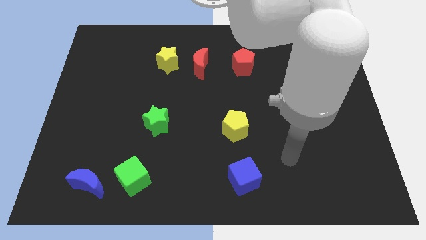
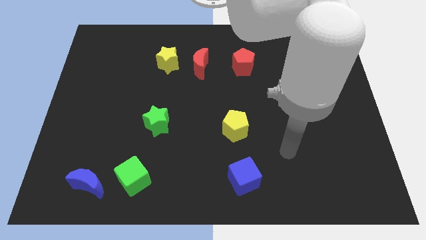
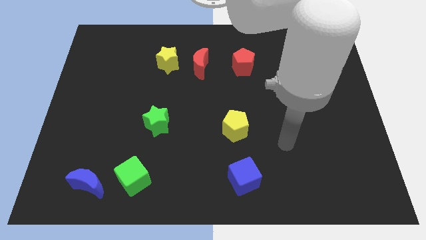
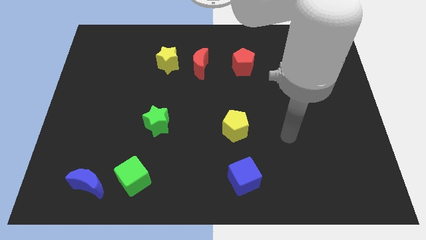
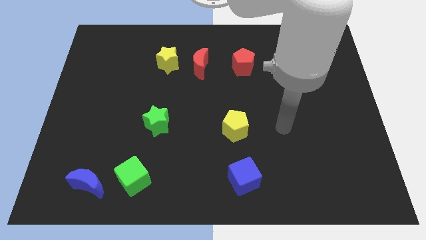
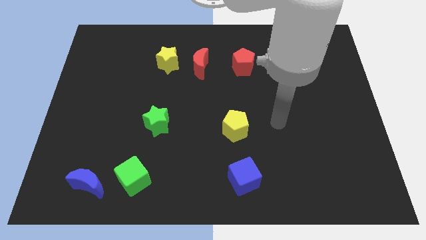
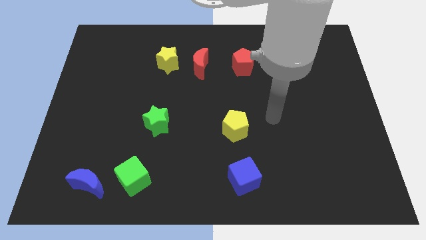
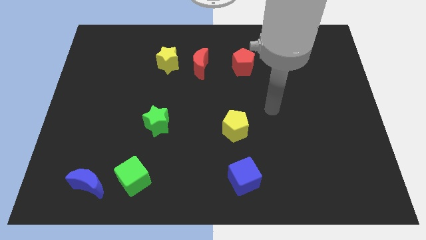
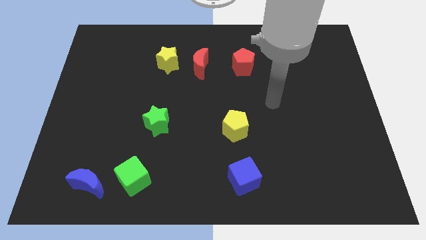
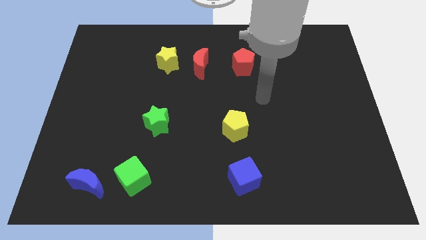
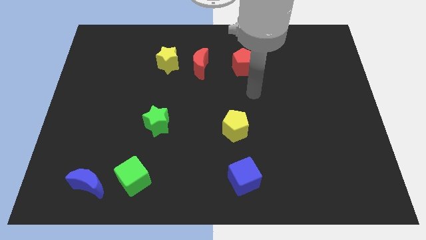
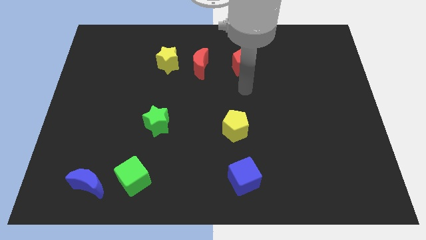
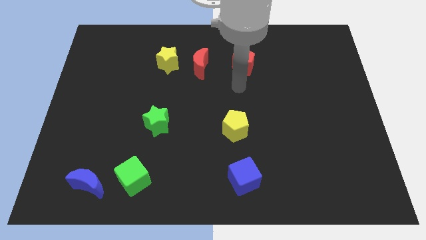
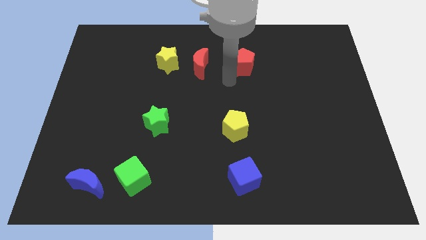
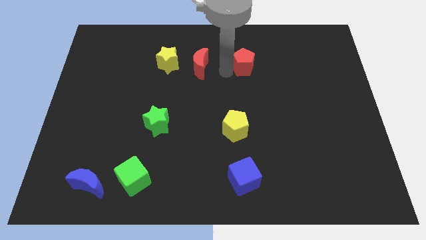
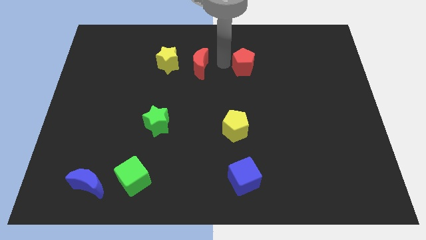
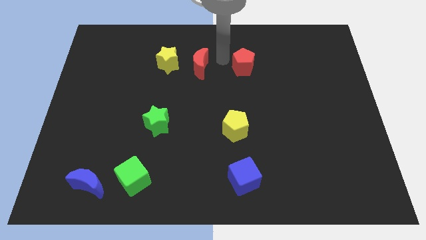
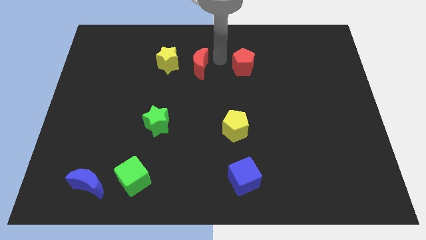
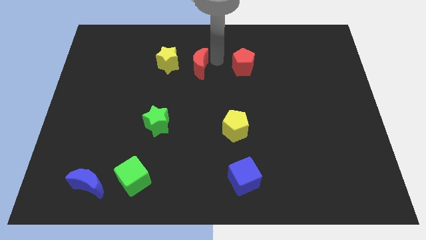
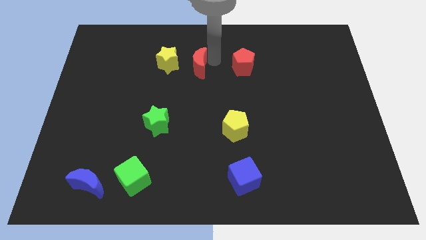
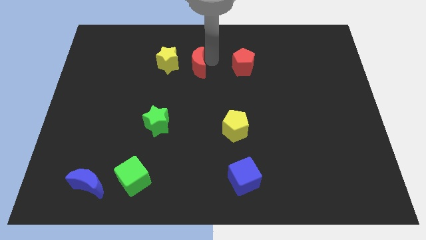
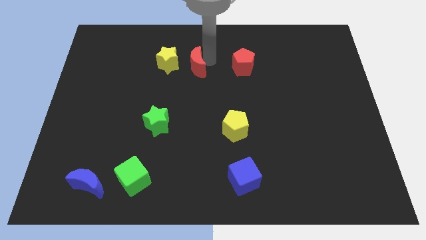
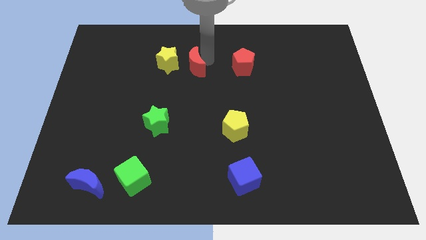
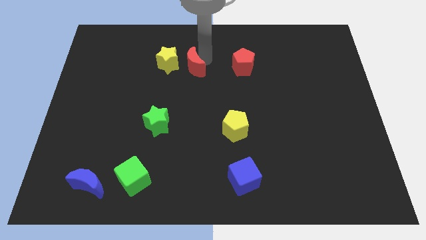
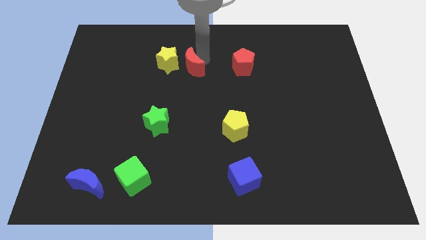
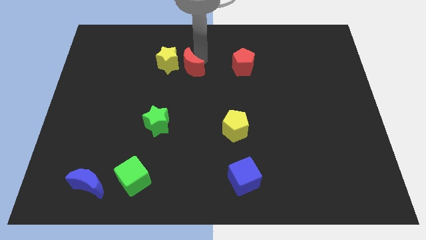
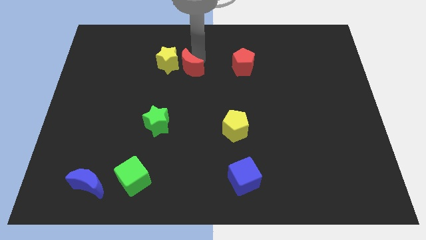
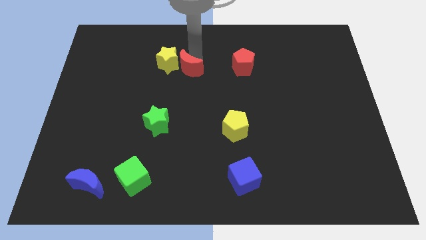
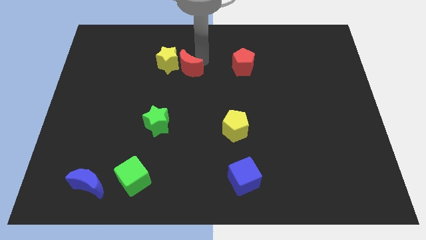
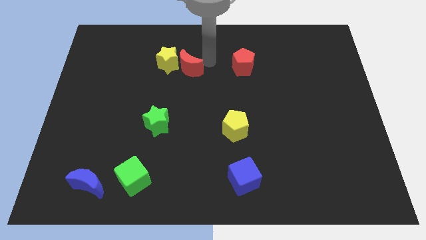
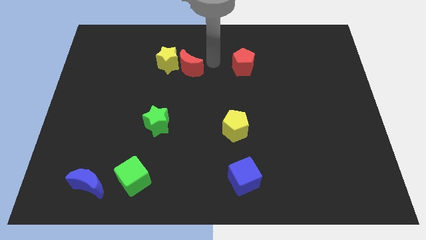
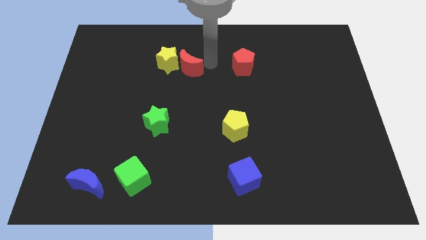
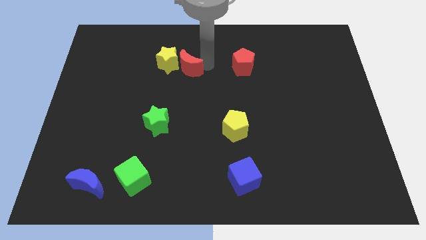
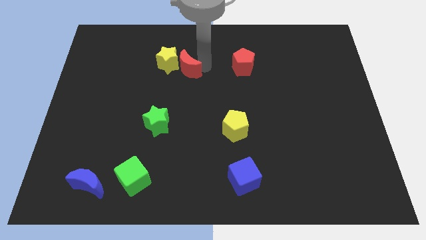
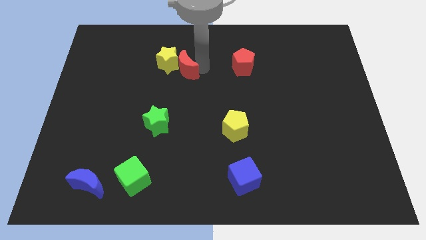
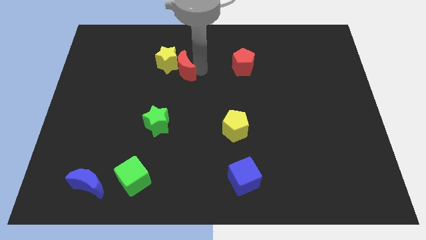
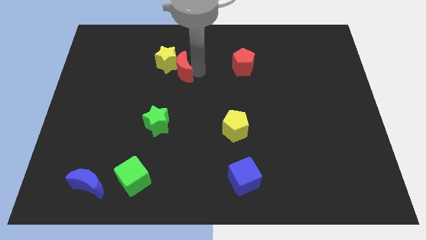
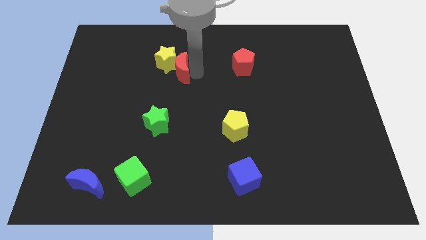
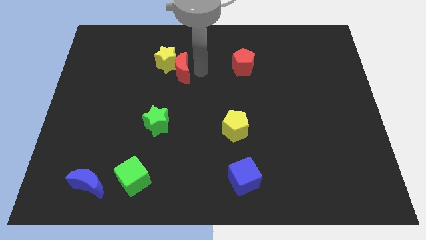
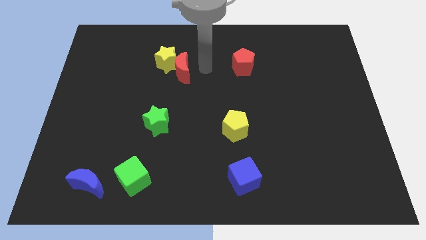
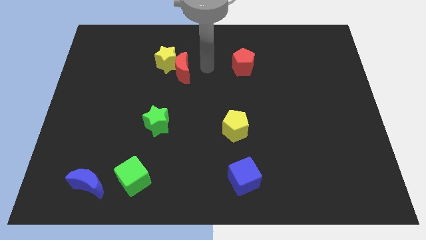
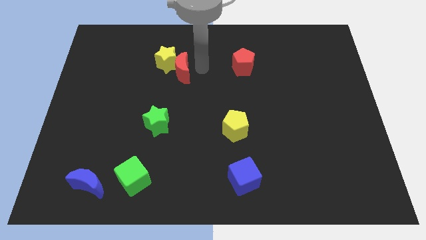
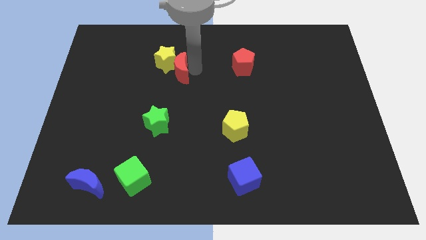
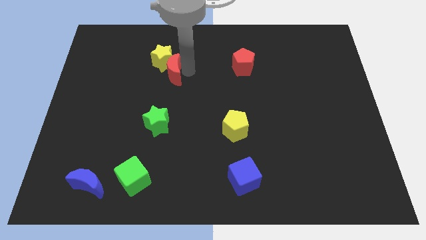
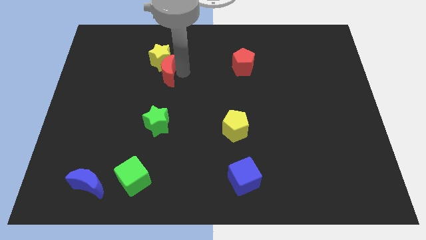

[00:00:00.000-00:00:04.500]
slide the red moon a bit to the left

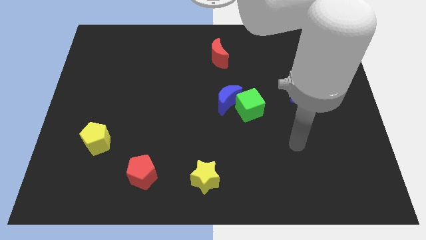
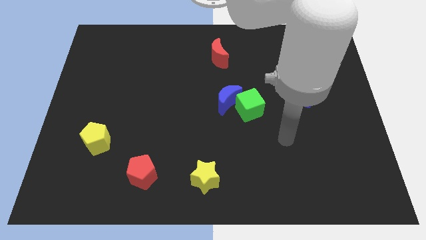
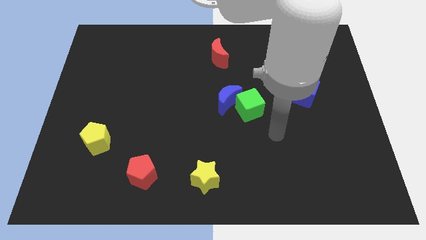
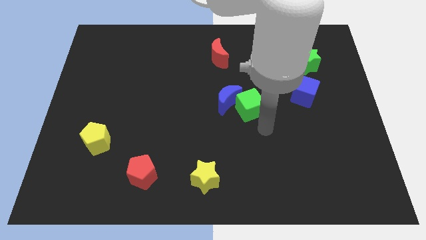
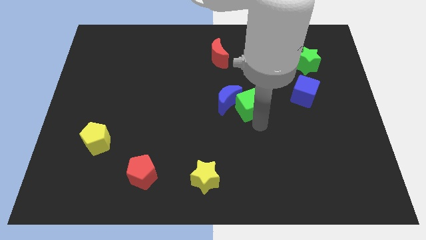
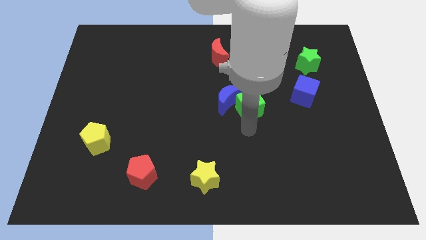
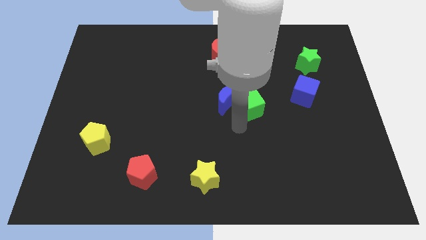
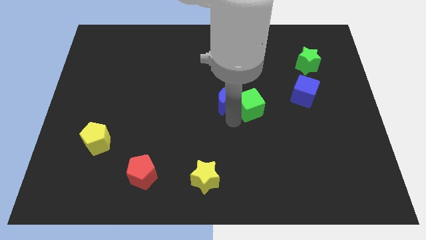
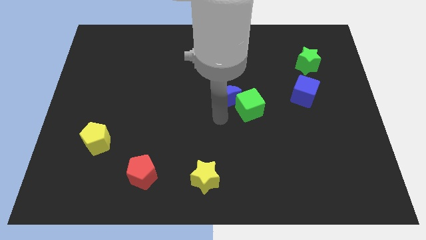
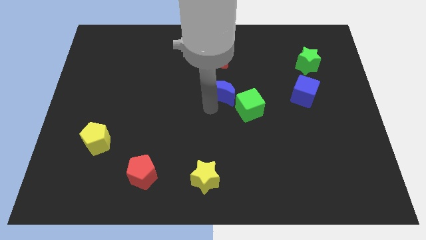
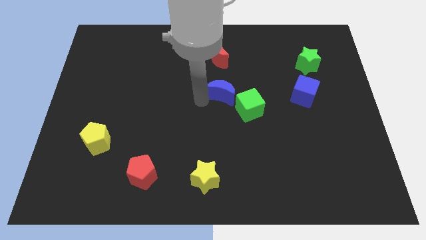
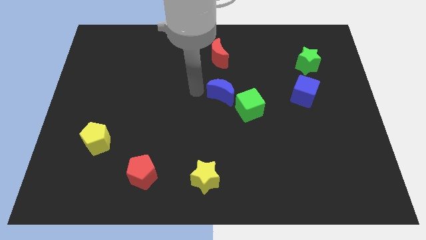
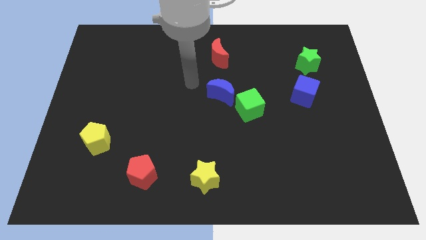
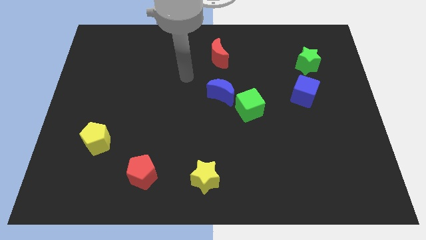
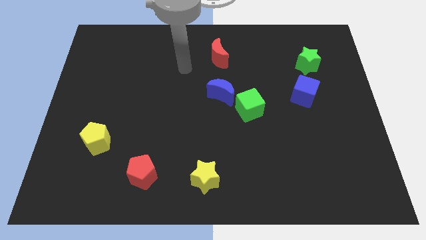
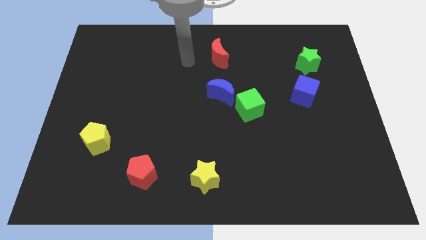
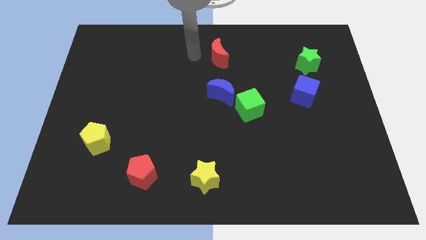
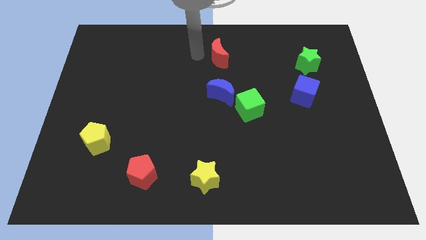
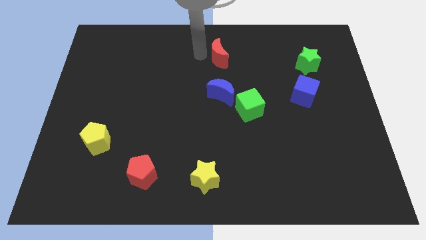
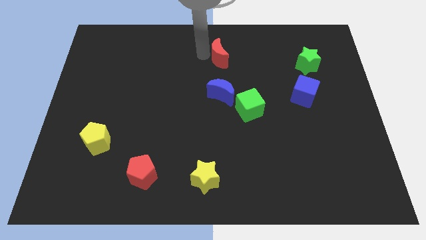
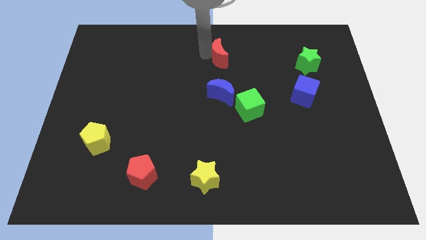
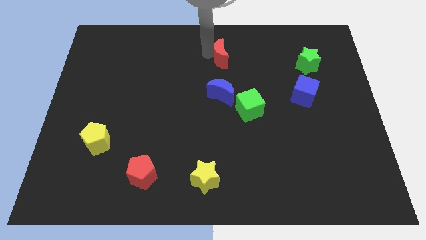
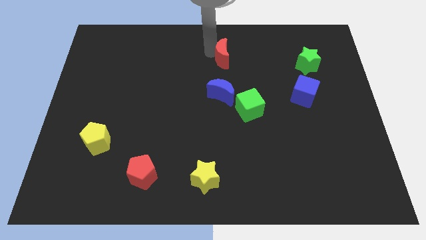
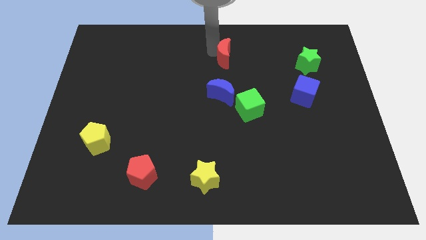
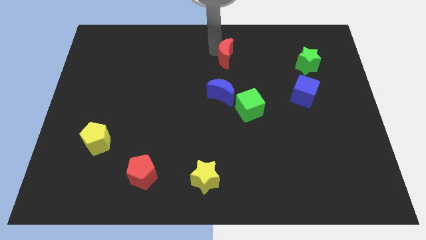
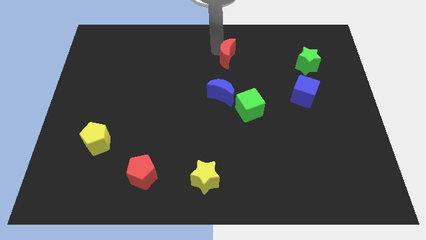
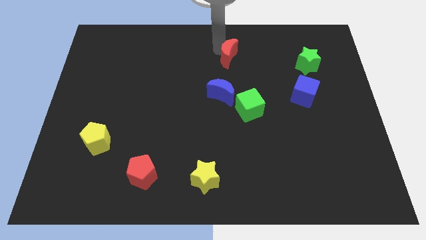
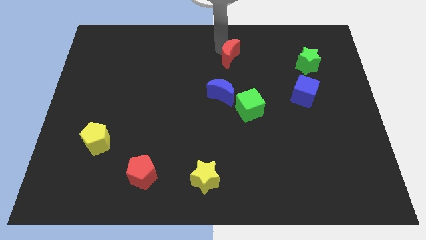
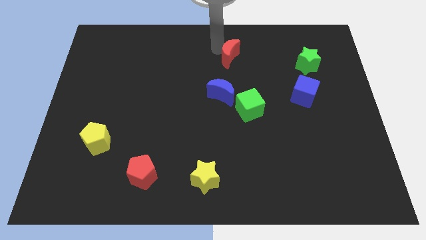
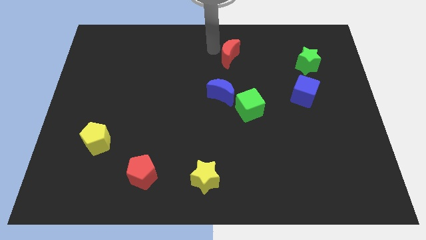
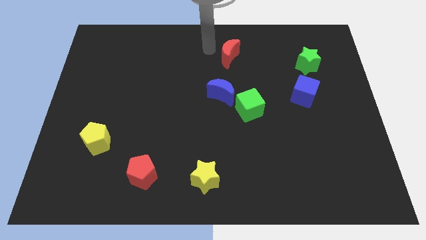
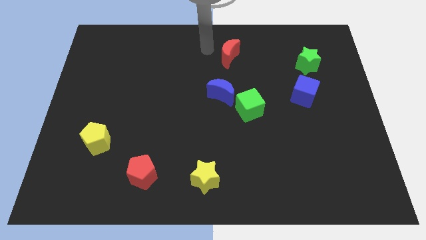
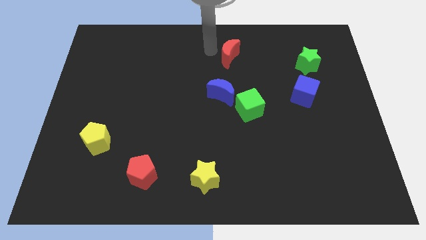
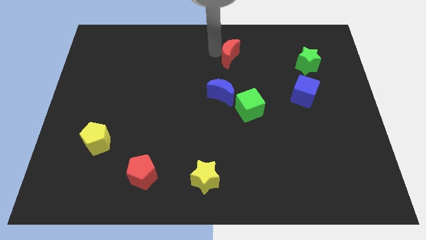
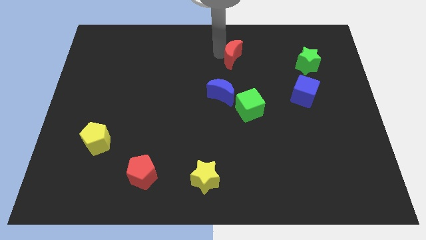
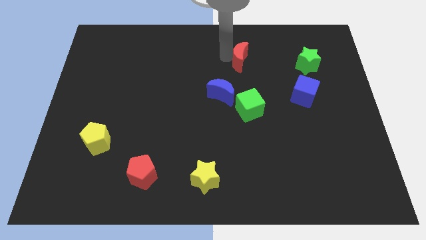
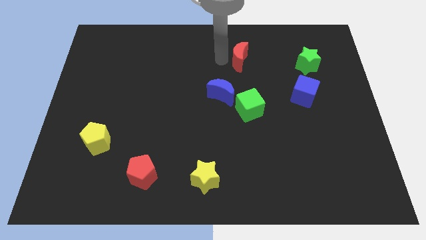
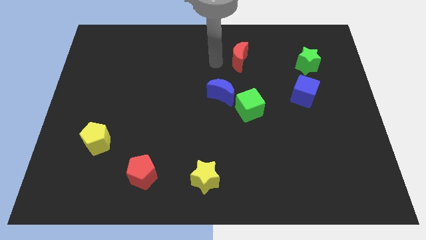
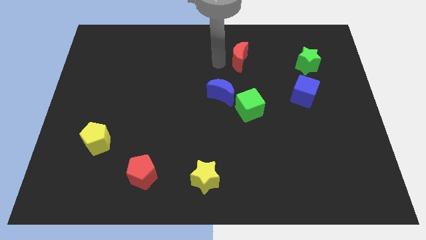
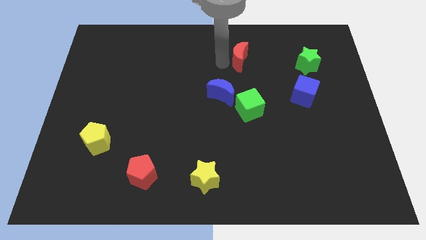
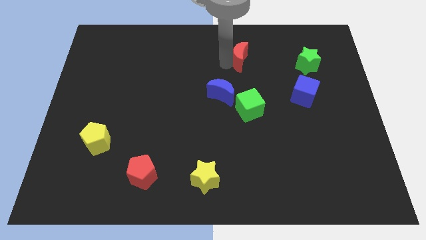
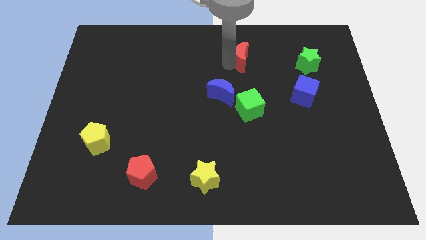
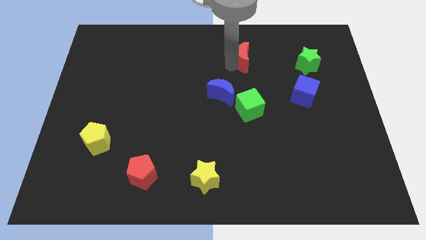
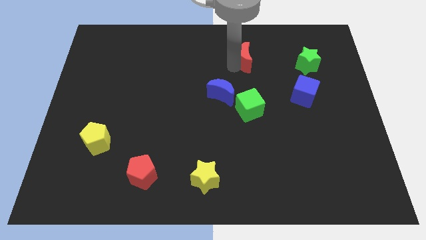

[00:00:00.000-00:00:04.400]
move the red moon right a bit
